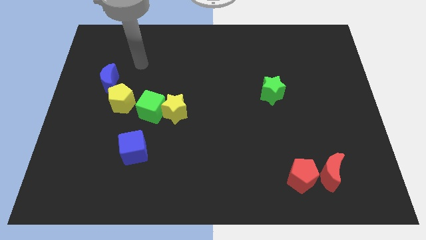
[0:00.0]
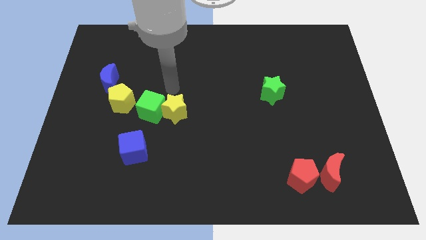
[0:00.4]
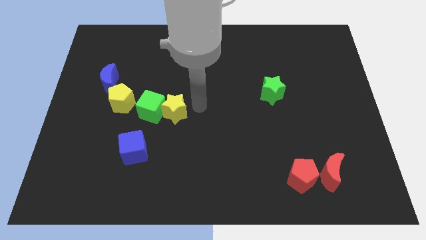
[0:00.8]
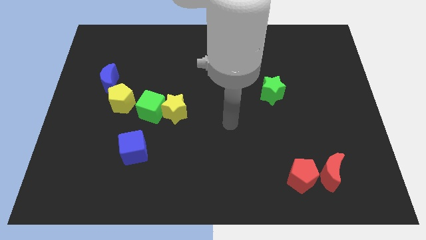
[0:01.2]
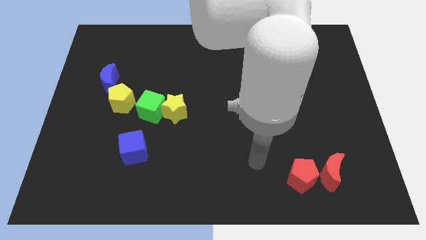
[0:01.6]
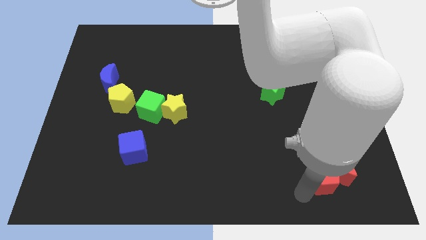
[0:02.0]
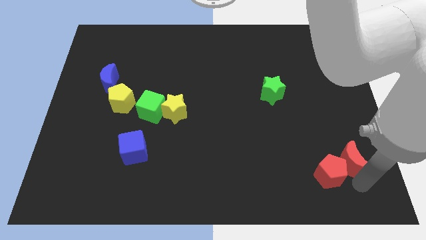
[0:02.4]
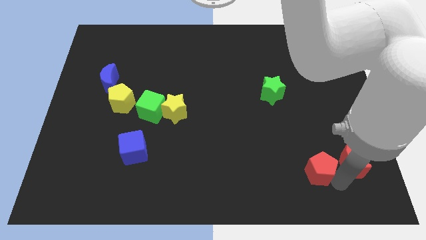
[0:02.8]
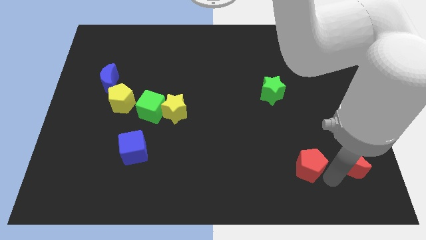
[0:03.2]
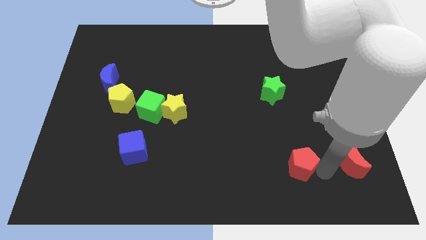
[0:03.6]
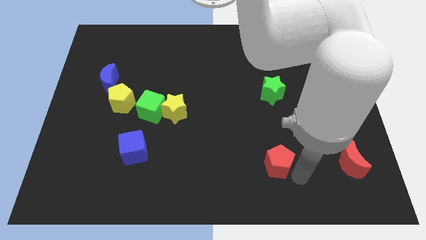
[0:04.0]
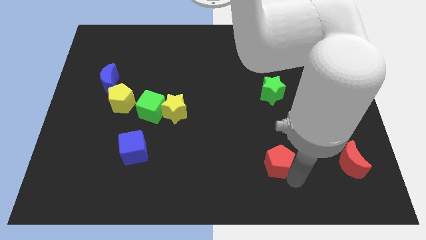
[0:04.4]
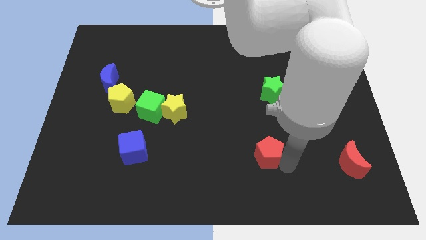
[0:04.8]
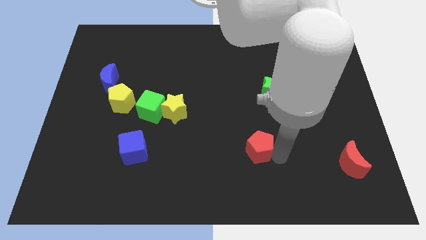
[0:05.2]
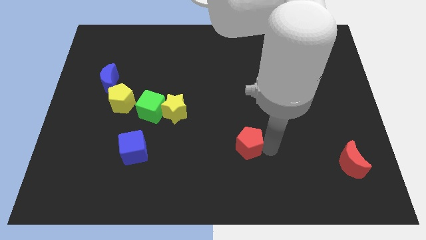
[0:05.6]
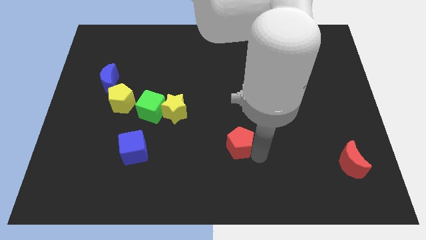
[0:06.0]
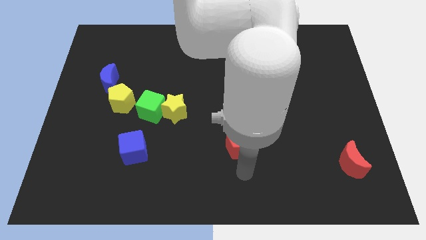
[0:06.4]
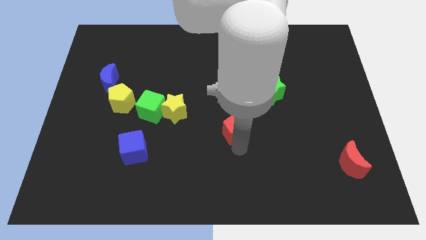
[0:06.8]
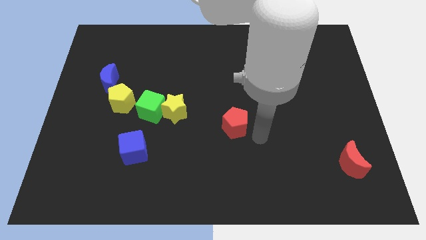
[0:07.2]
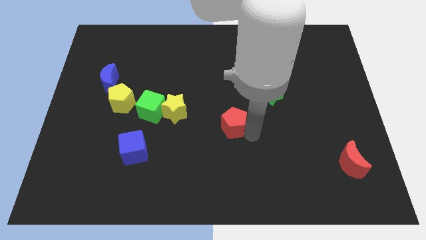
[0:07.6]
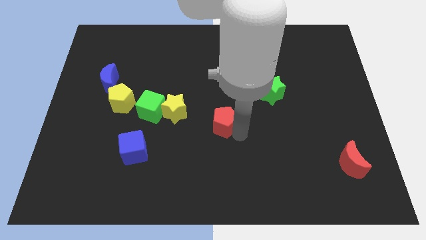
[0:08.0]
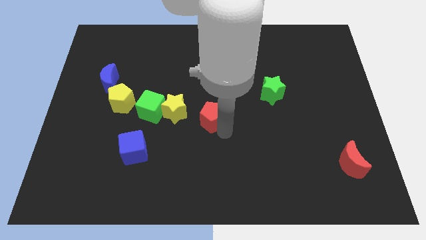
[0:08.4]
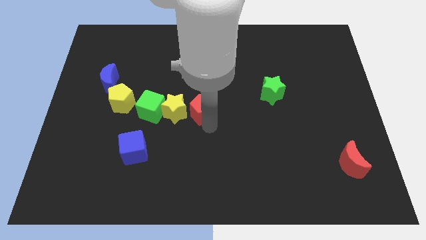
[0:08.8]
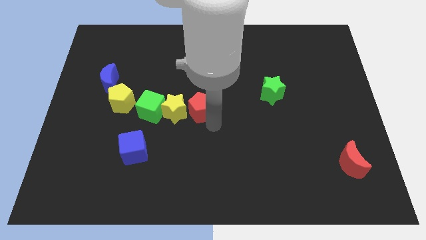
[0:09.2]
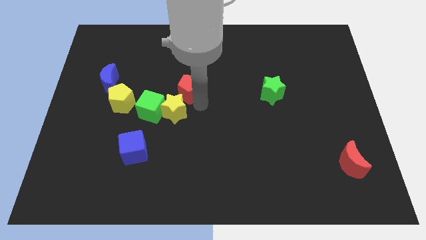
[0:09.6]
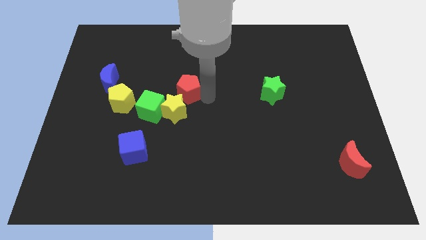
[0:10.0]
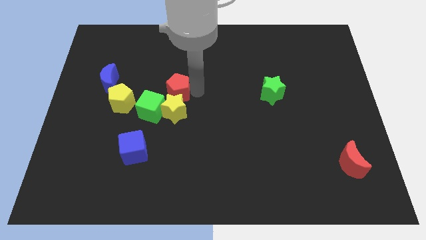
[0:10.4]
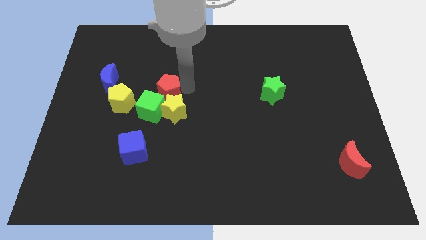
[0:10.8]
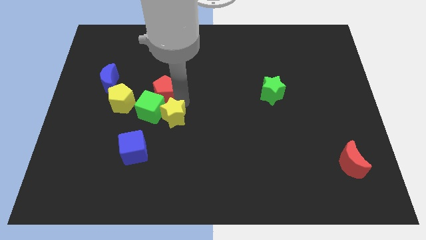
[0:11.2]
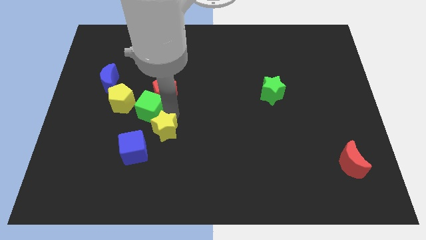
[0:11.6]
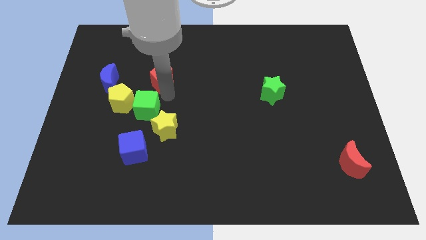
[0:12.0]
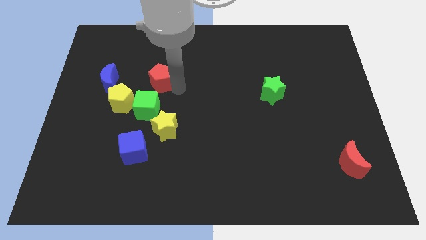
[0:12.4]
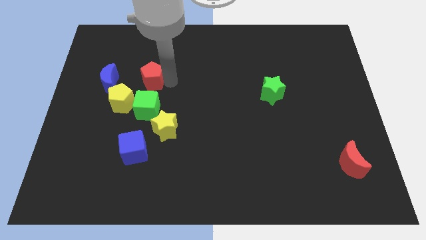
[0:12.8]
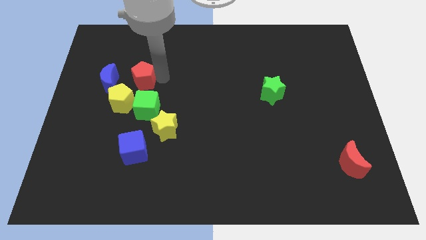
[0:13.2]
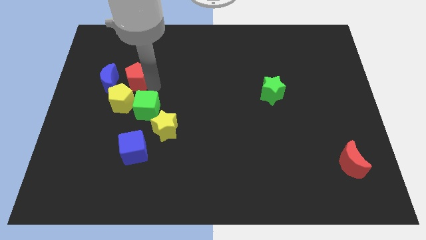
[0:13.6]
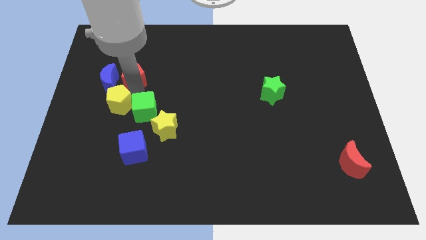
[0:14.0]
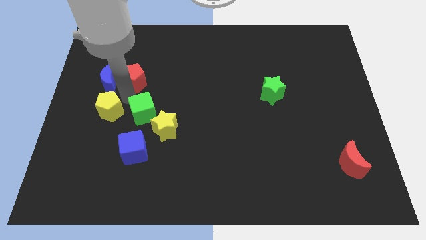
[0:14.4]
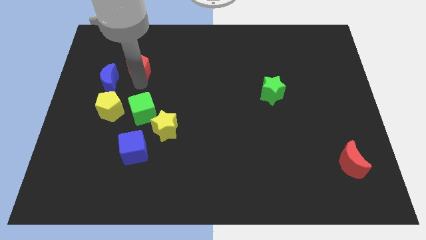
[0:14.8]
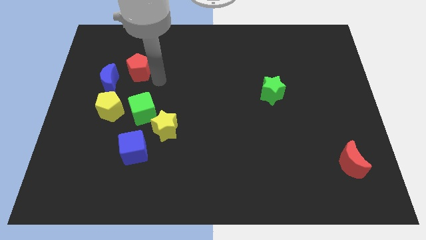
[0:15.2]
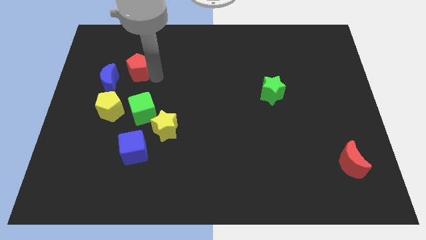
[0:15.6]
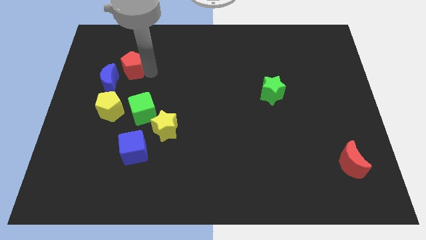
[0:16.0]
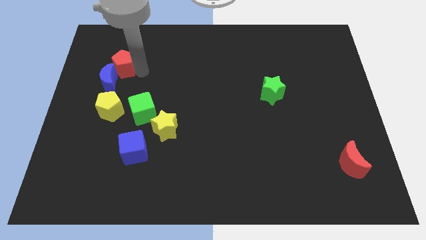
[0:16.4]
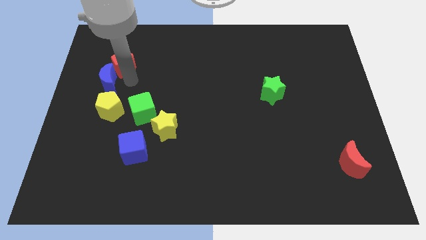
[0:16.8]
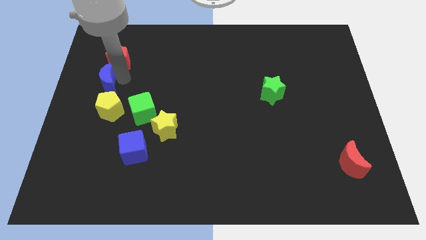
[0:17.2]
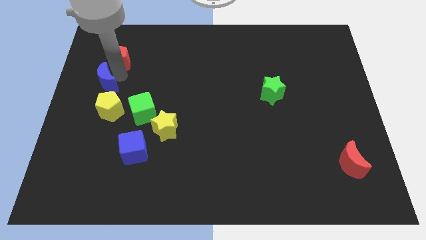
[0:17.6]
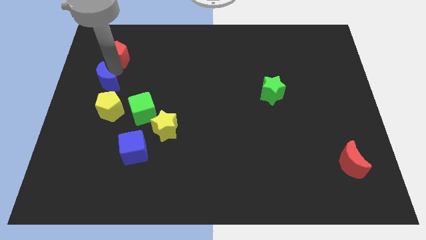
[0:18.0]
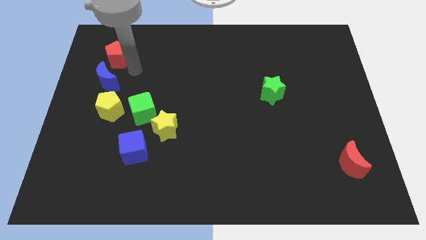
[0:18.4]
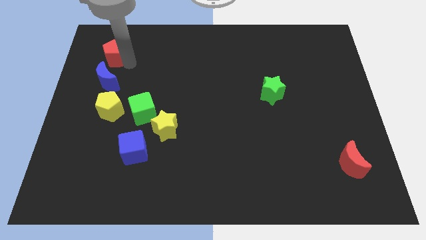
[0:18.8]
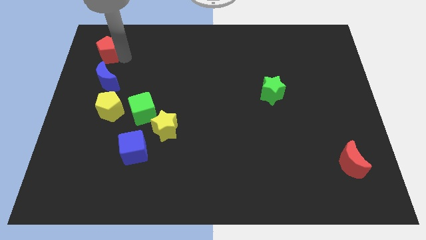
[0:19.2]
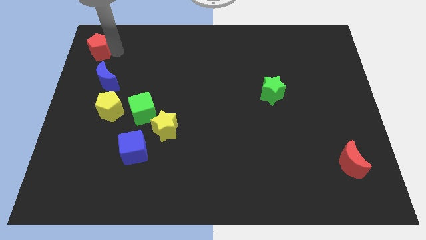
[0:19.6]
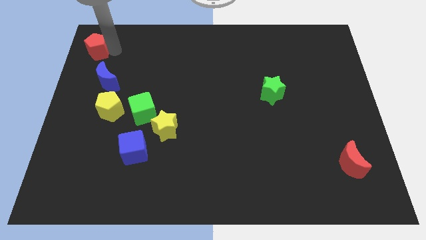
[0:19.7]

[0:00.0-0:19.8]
push the red pentagon to the top left corner

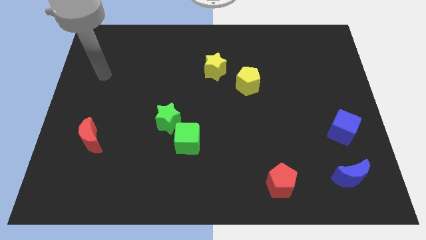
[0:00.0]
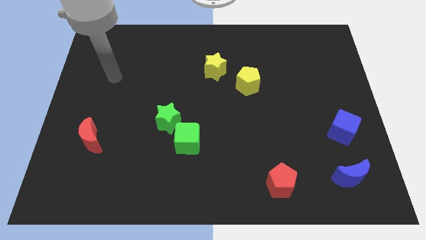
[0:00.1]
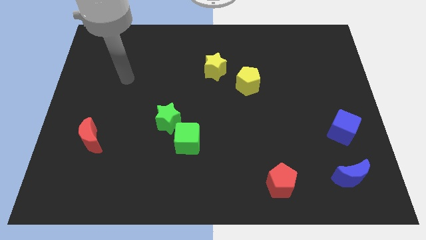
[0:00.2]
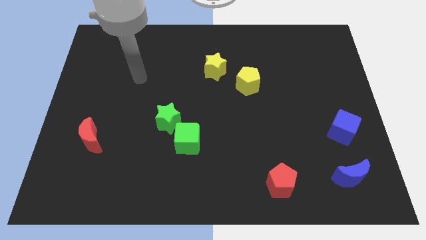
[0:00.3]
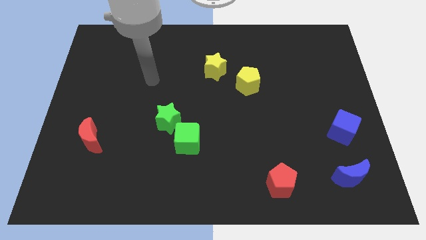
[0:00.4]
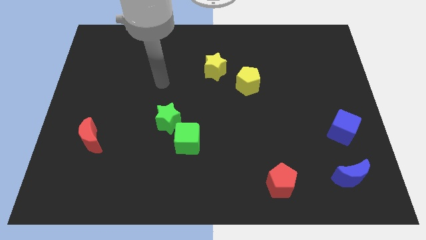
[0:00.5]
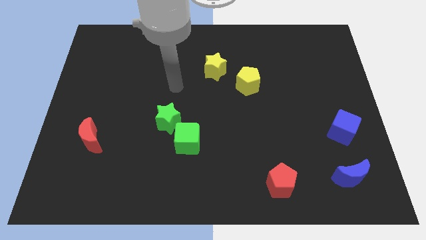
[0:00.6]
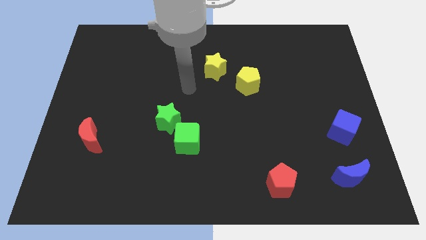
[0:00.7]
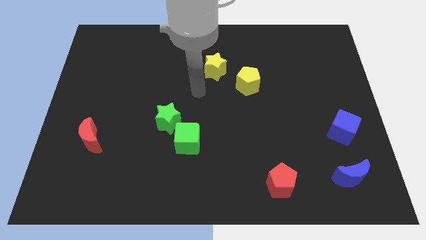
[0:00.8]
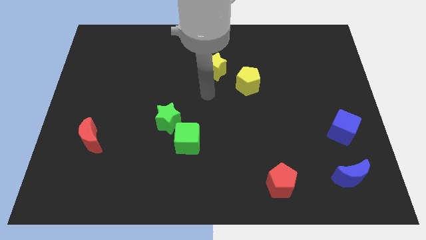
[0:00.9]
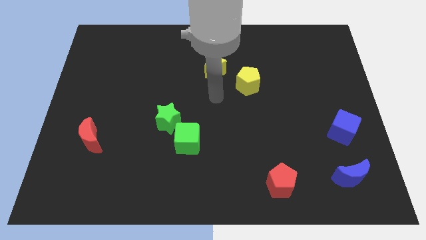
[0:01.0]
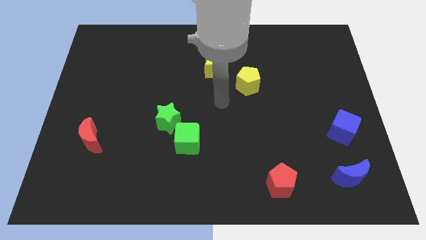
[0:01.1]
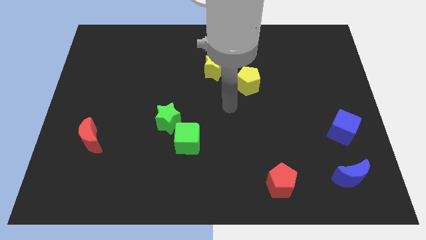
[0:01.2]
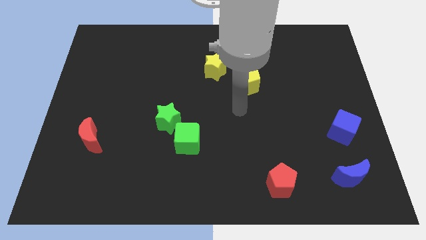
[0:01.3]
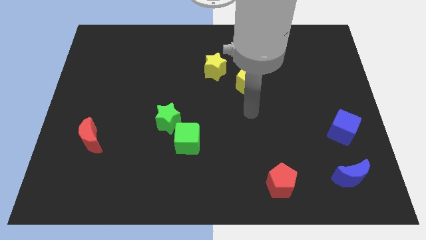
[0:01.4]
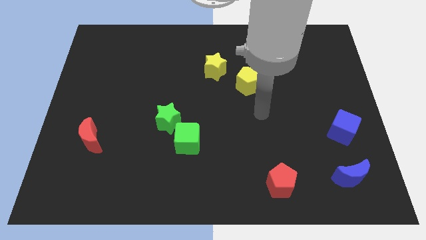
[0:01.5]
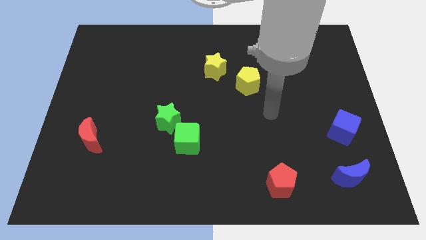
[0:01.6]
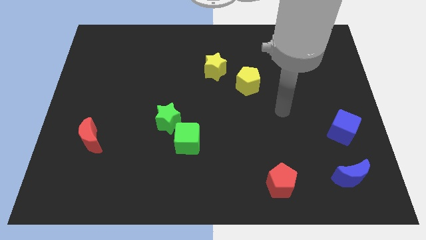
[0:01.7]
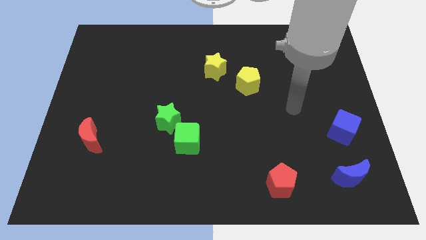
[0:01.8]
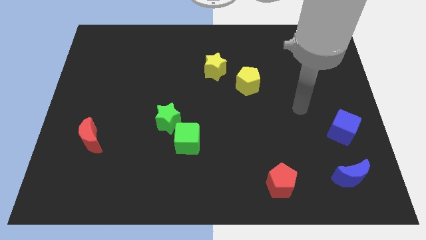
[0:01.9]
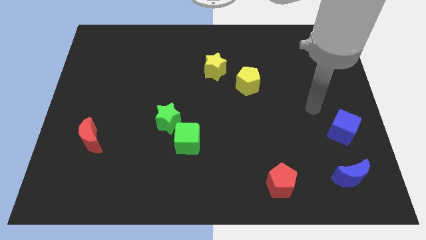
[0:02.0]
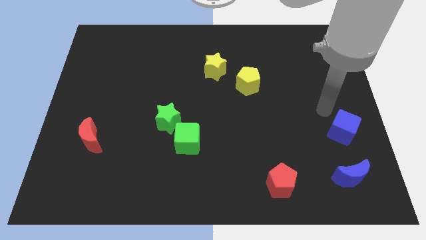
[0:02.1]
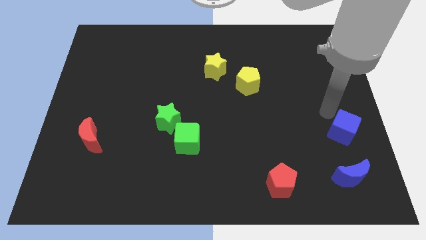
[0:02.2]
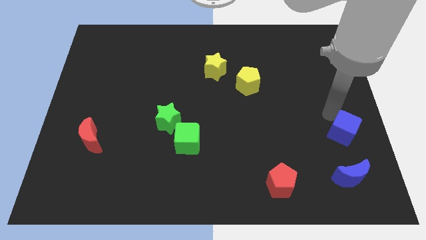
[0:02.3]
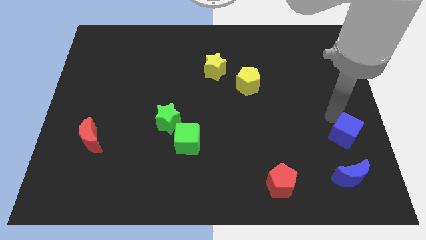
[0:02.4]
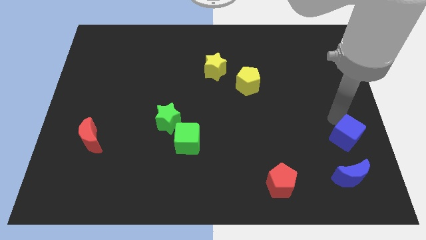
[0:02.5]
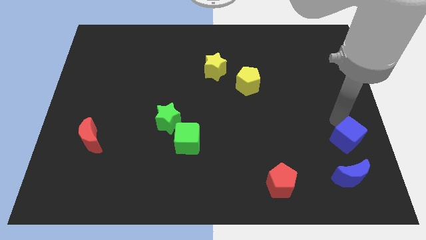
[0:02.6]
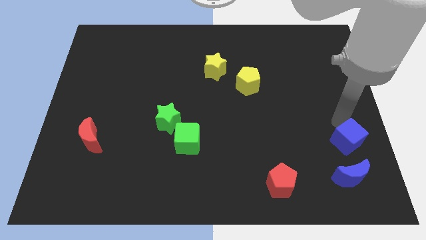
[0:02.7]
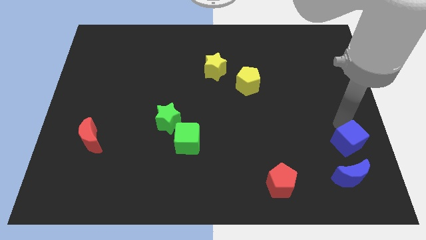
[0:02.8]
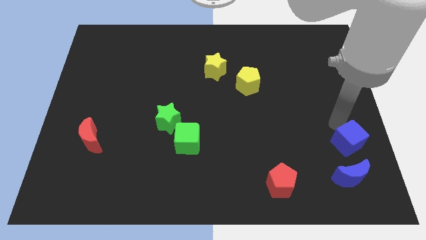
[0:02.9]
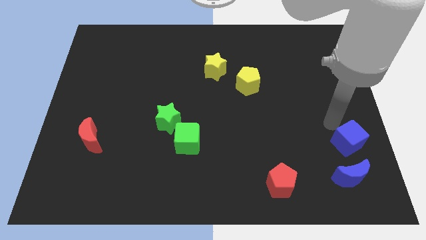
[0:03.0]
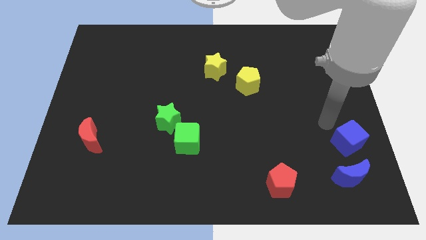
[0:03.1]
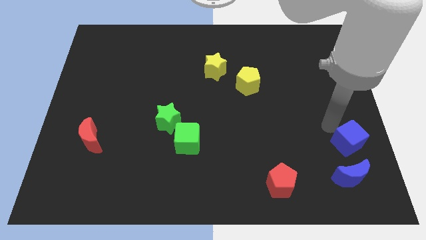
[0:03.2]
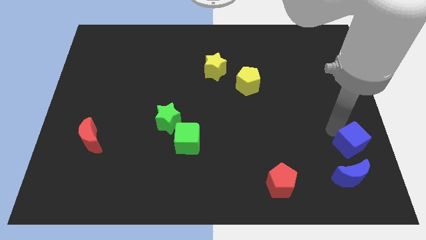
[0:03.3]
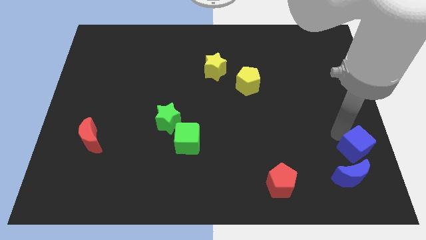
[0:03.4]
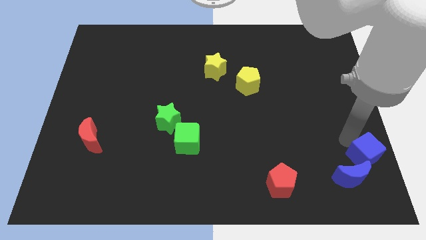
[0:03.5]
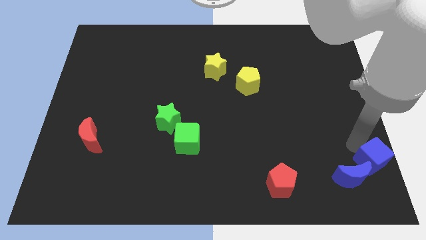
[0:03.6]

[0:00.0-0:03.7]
slide the blue cube to the bottom right of the board
